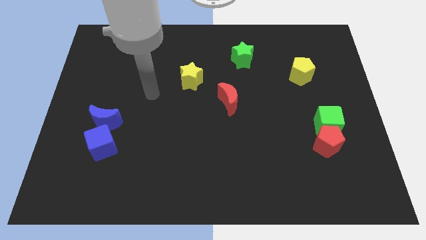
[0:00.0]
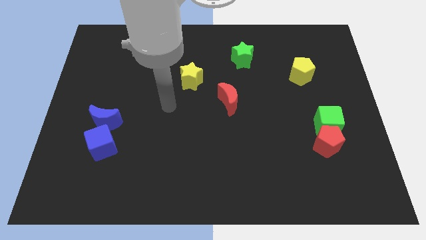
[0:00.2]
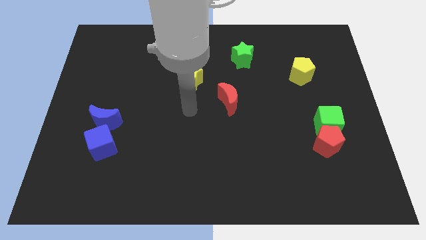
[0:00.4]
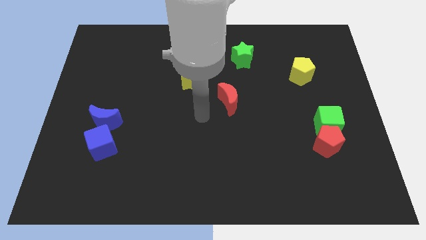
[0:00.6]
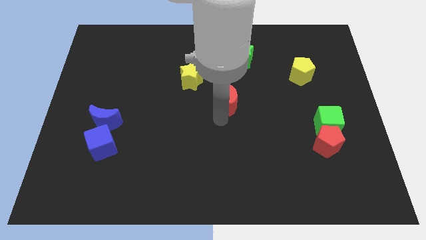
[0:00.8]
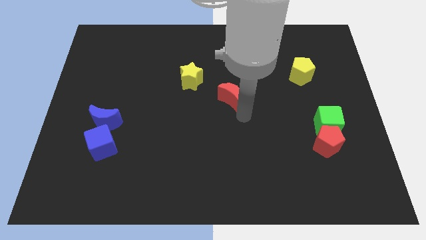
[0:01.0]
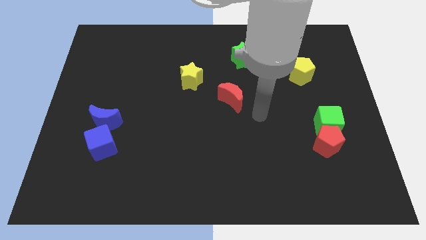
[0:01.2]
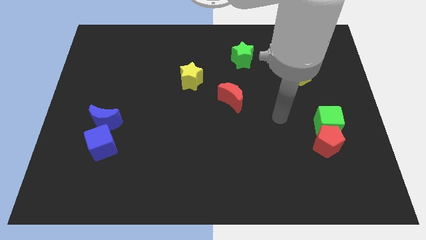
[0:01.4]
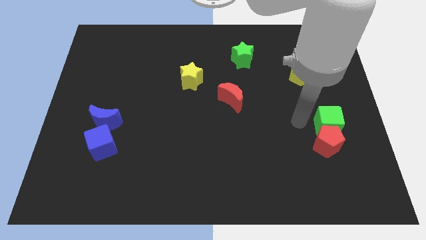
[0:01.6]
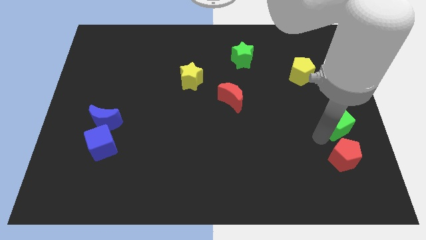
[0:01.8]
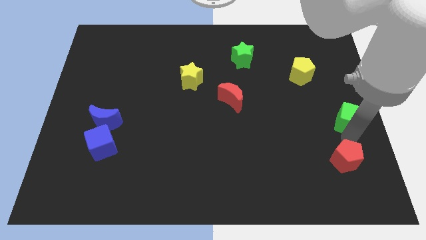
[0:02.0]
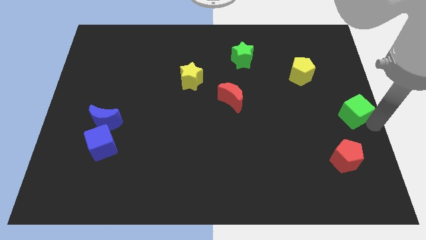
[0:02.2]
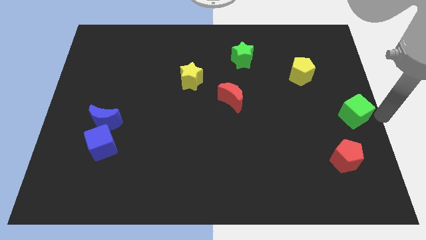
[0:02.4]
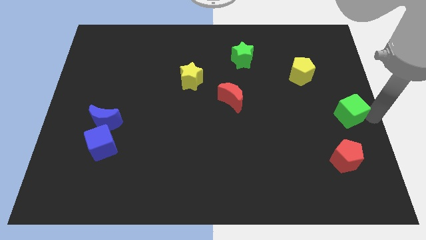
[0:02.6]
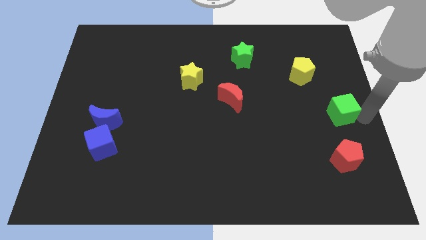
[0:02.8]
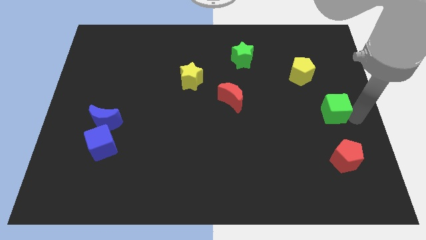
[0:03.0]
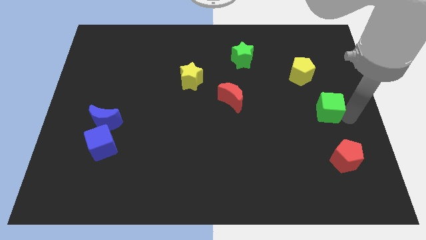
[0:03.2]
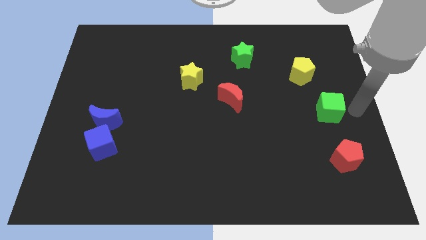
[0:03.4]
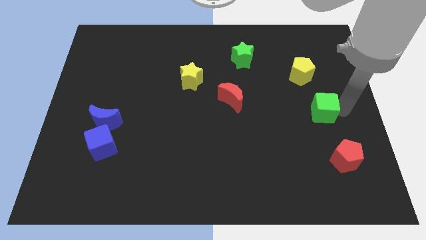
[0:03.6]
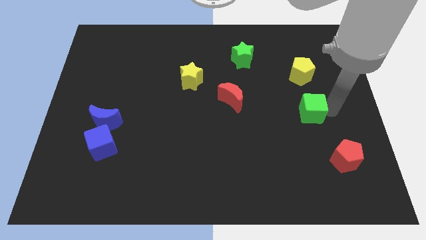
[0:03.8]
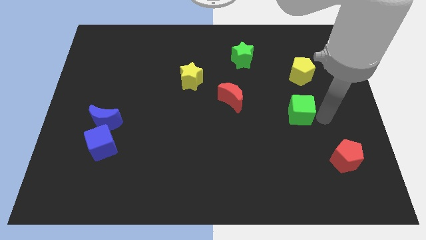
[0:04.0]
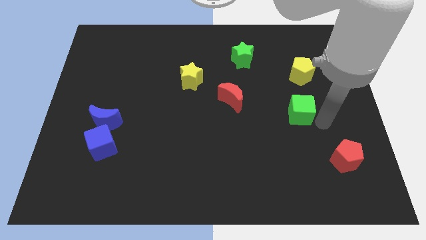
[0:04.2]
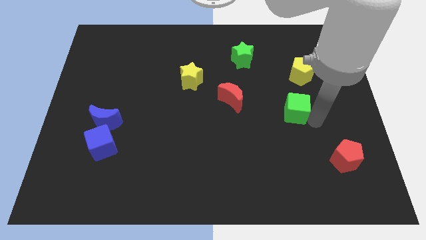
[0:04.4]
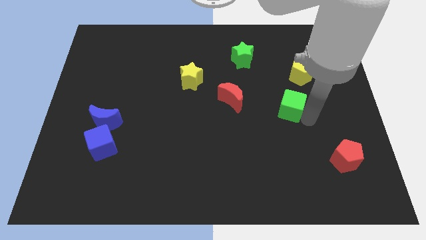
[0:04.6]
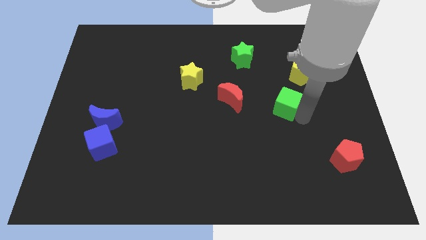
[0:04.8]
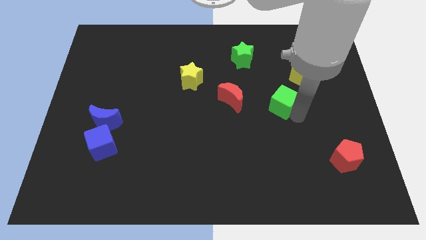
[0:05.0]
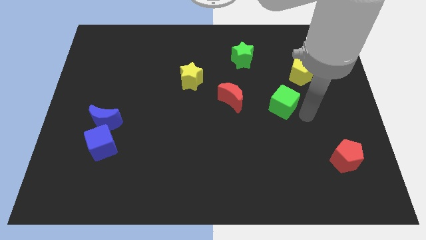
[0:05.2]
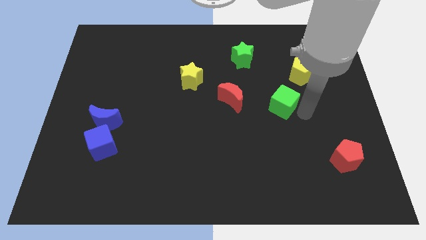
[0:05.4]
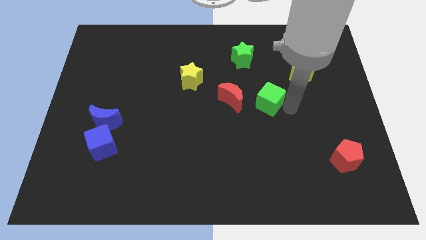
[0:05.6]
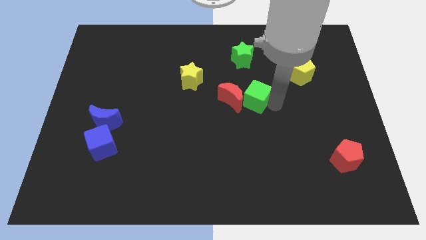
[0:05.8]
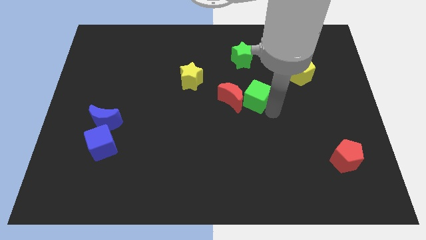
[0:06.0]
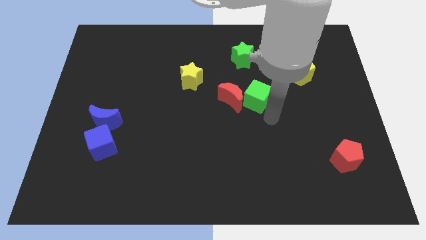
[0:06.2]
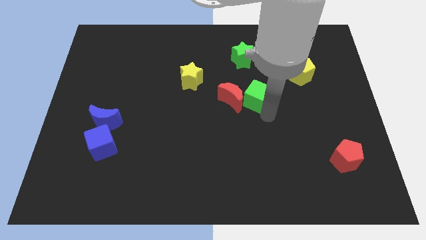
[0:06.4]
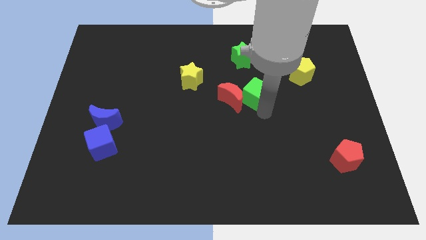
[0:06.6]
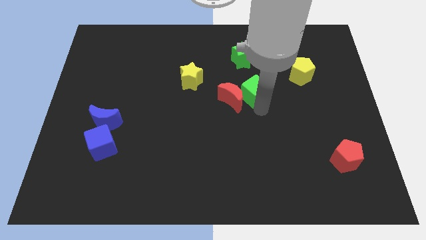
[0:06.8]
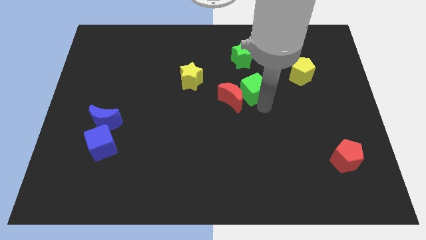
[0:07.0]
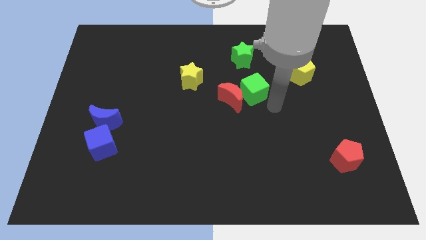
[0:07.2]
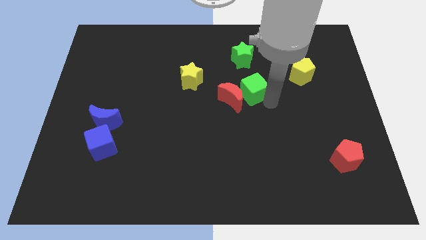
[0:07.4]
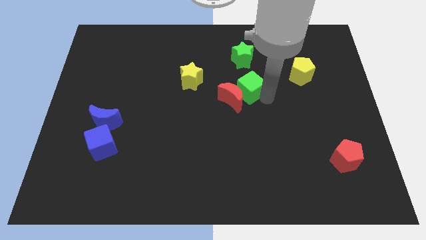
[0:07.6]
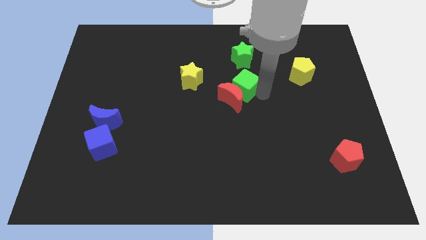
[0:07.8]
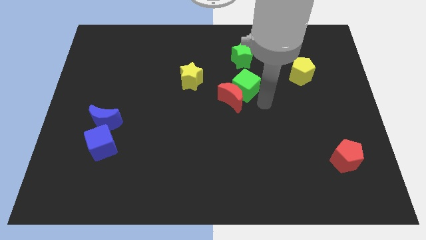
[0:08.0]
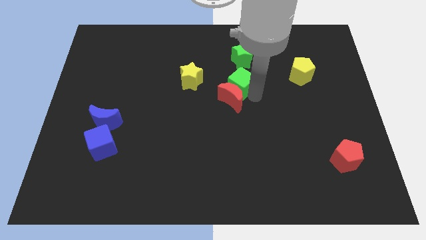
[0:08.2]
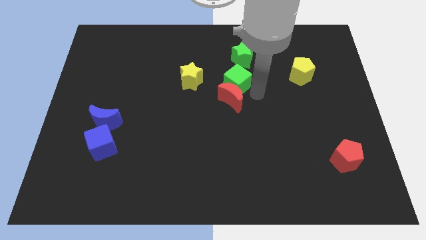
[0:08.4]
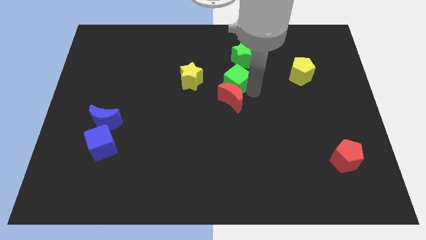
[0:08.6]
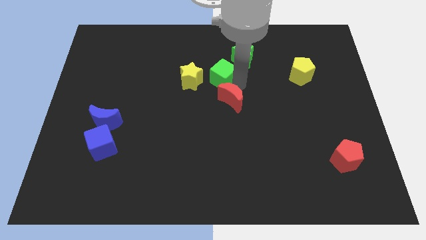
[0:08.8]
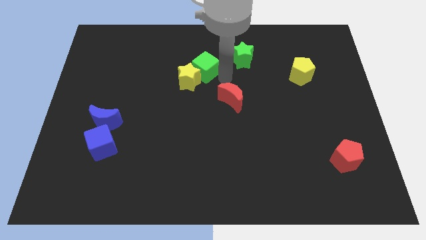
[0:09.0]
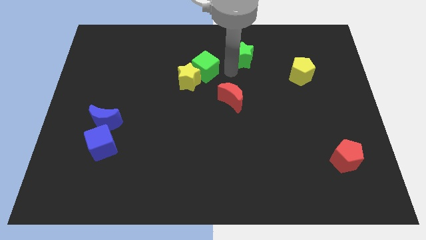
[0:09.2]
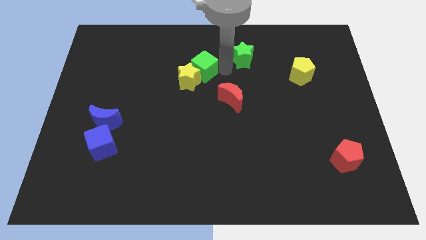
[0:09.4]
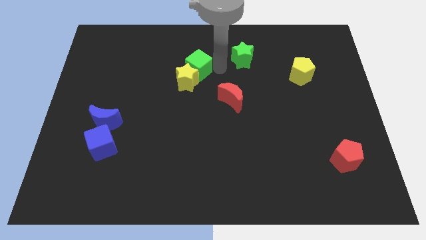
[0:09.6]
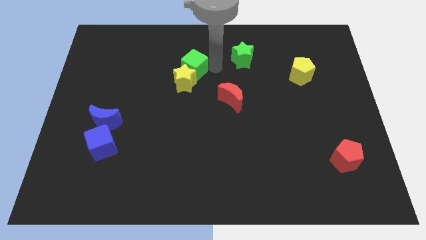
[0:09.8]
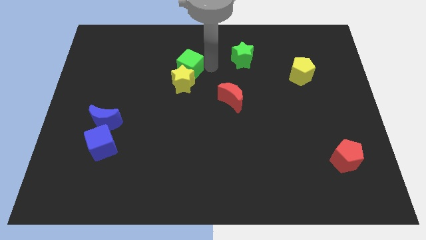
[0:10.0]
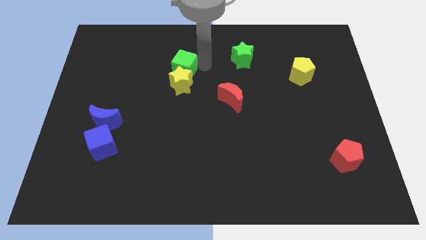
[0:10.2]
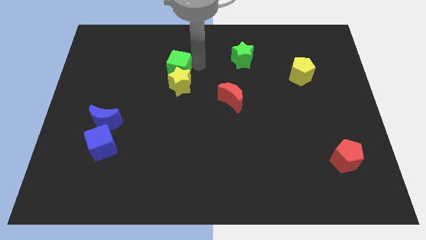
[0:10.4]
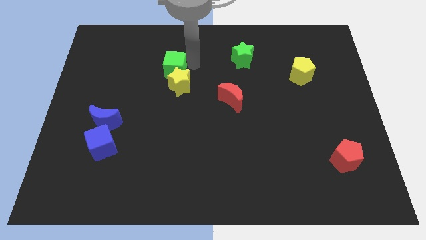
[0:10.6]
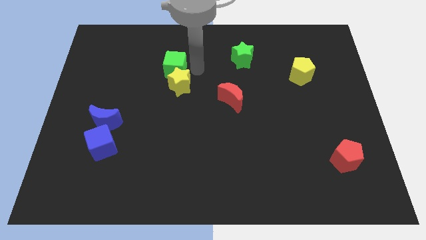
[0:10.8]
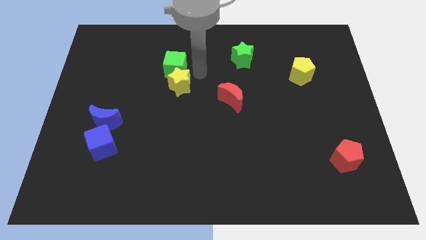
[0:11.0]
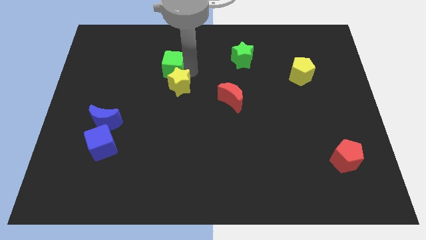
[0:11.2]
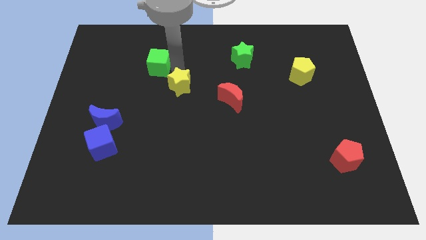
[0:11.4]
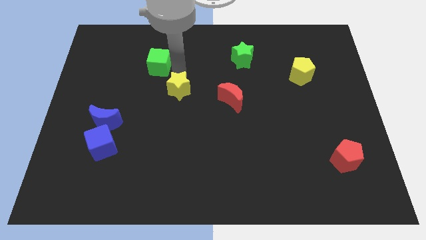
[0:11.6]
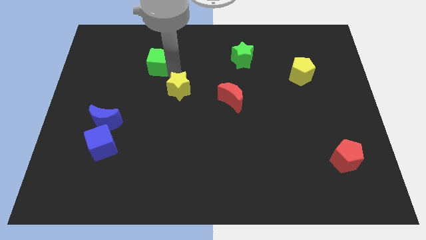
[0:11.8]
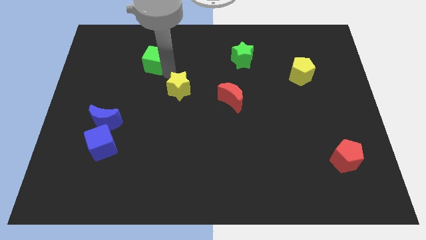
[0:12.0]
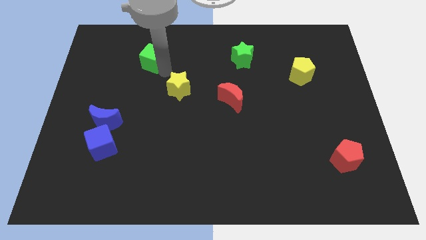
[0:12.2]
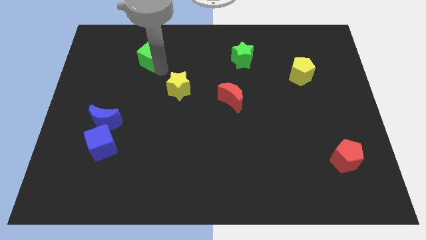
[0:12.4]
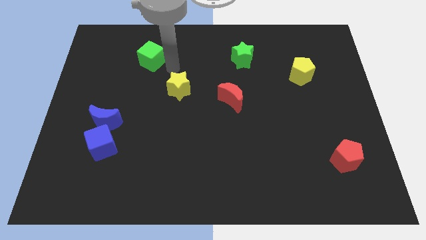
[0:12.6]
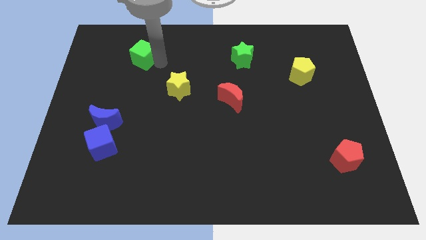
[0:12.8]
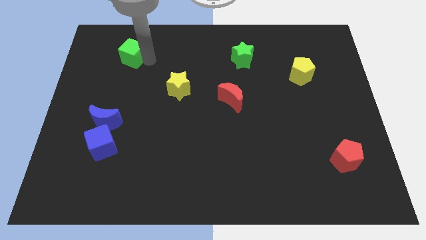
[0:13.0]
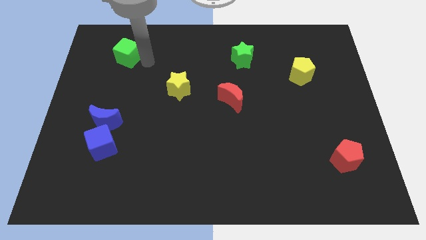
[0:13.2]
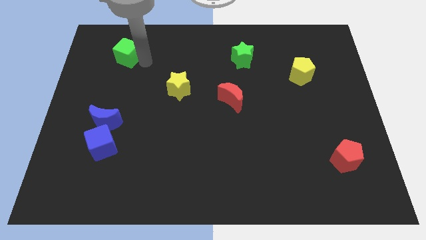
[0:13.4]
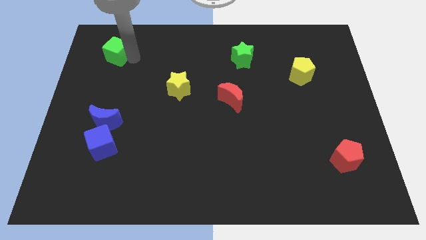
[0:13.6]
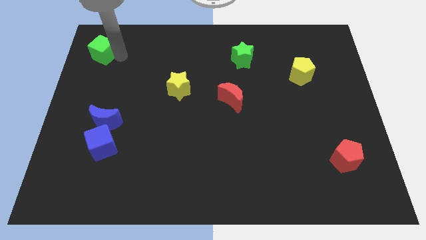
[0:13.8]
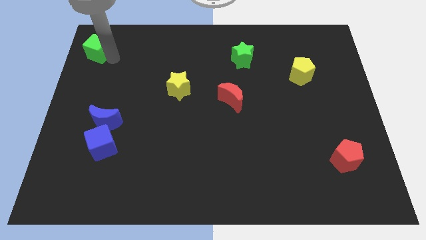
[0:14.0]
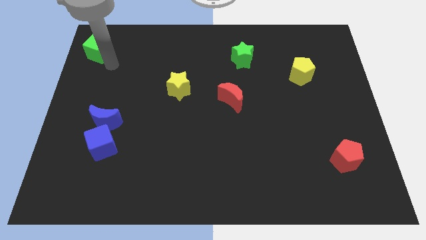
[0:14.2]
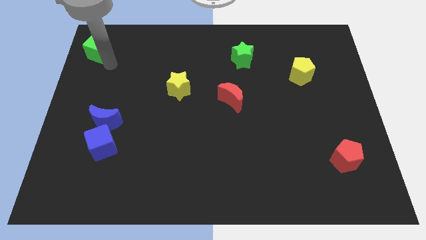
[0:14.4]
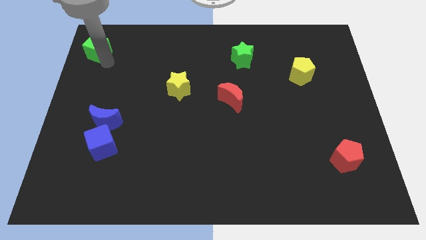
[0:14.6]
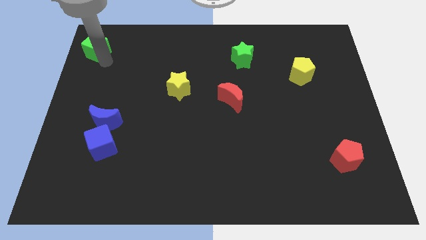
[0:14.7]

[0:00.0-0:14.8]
push the green cube to the upper left corner
